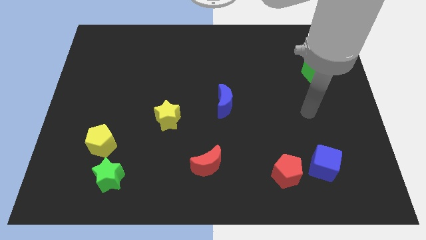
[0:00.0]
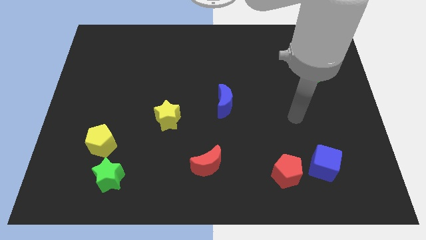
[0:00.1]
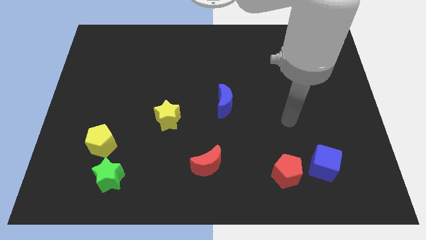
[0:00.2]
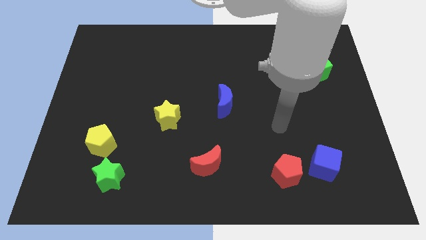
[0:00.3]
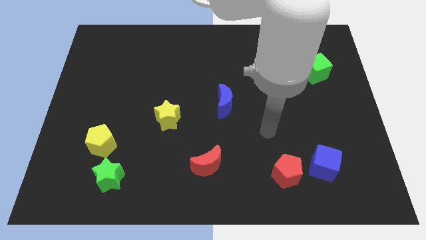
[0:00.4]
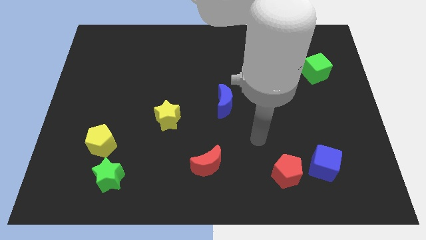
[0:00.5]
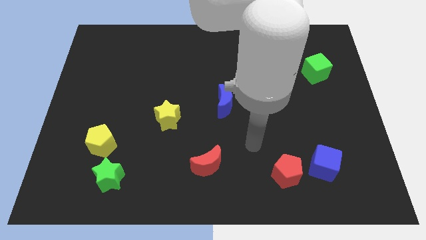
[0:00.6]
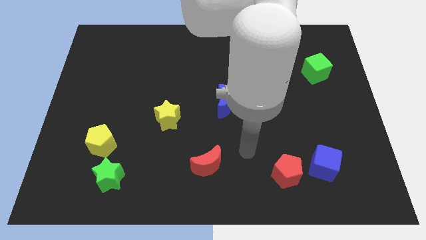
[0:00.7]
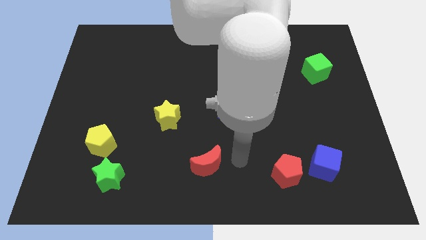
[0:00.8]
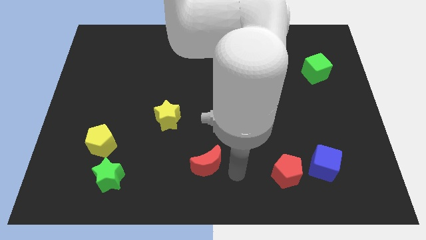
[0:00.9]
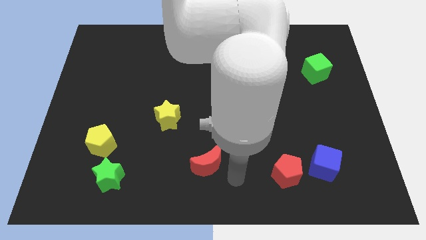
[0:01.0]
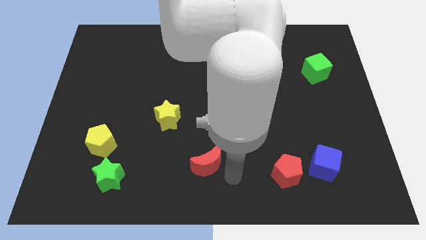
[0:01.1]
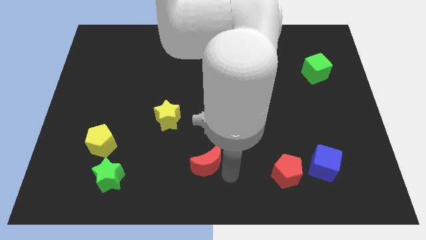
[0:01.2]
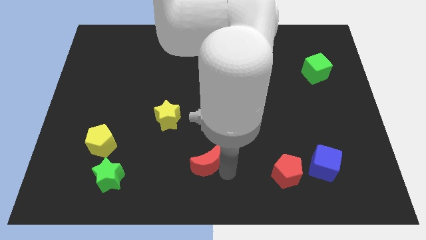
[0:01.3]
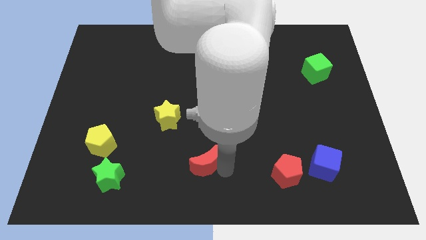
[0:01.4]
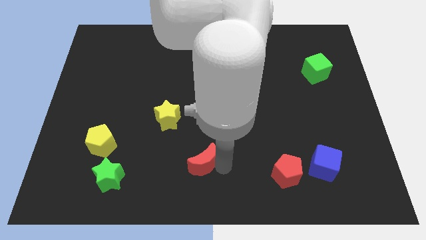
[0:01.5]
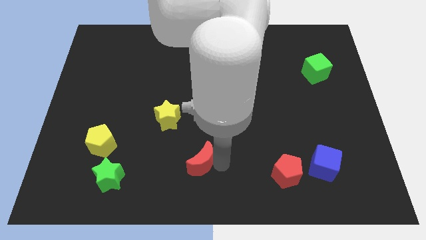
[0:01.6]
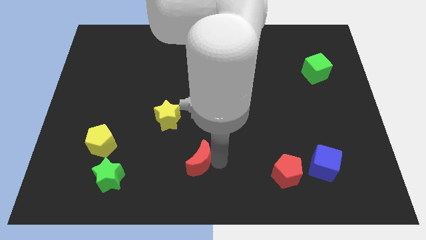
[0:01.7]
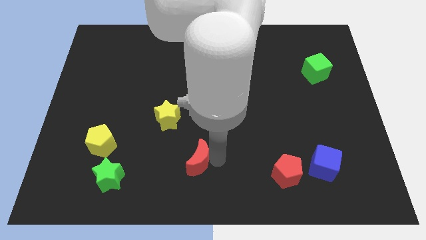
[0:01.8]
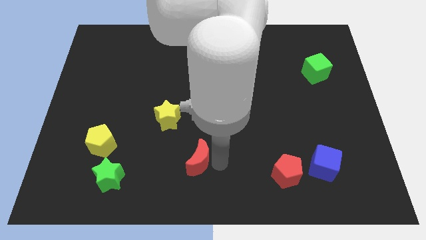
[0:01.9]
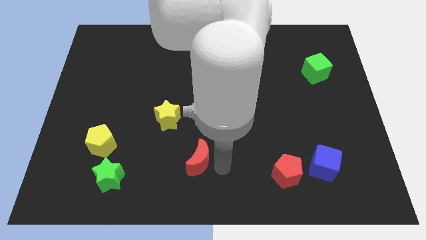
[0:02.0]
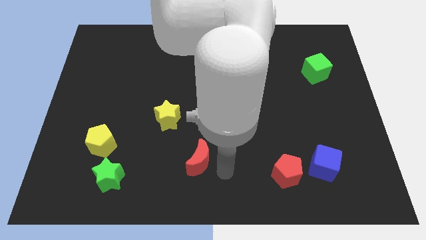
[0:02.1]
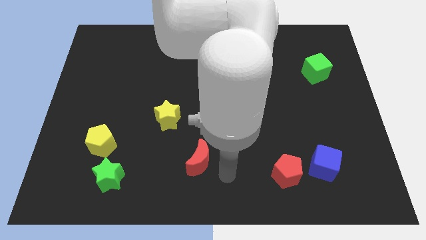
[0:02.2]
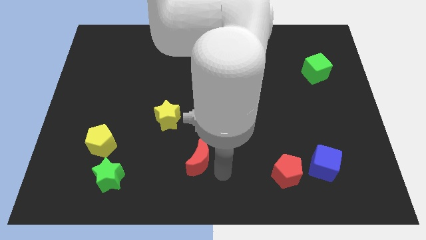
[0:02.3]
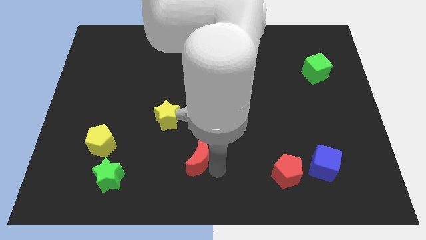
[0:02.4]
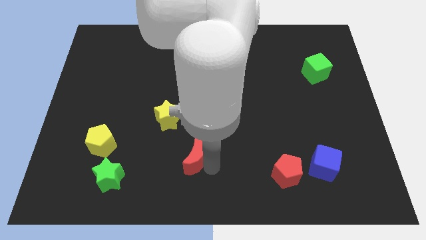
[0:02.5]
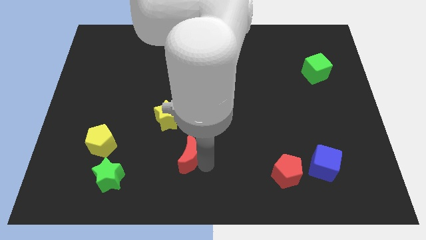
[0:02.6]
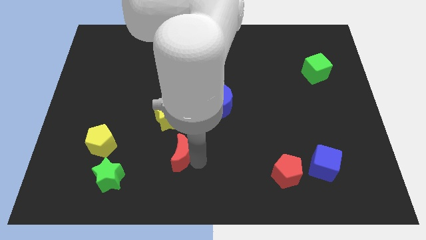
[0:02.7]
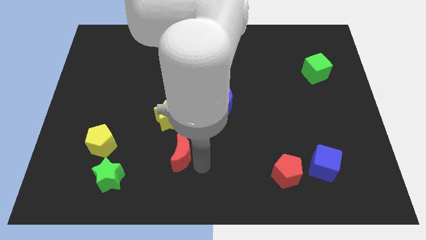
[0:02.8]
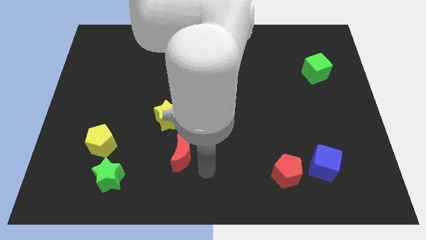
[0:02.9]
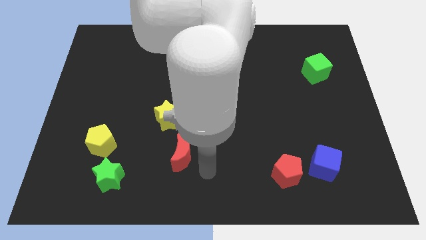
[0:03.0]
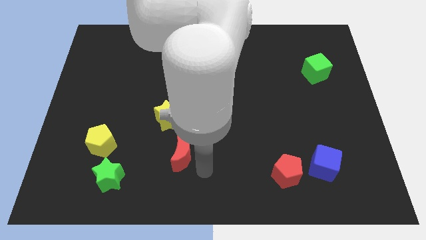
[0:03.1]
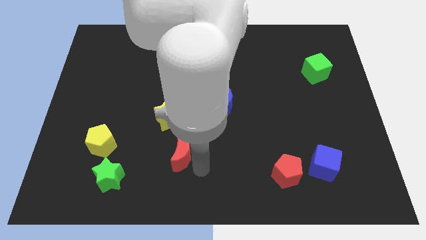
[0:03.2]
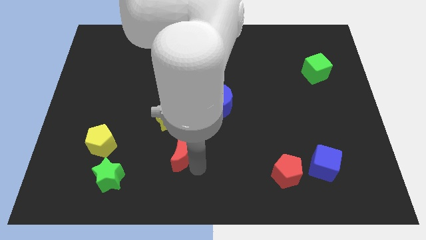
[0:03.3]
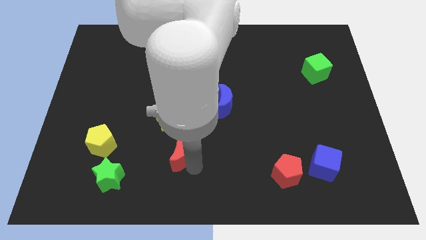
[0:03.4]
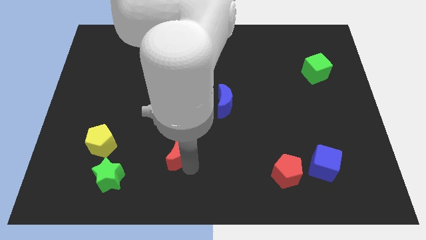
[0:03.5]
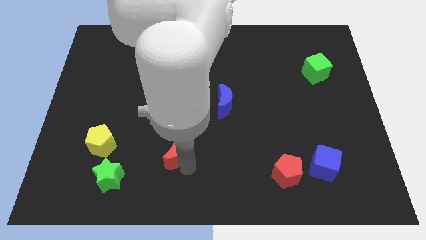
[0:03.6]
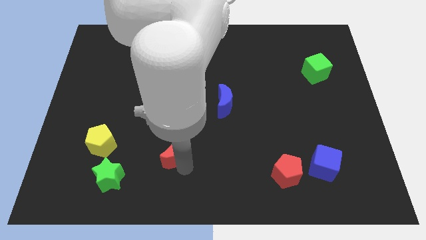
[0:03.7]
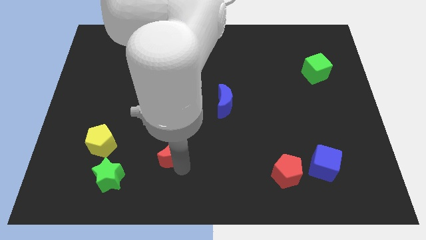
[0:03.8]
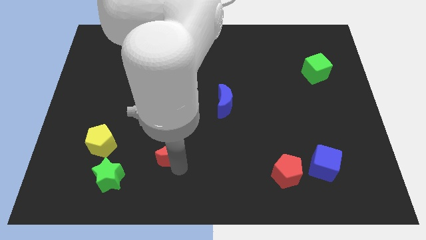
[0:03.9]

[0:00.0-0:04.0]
move the red moon up and then to the left a little

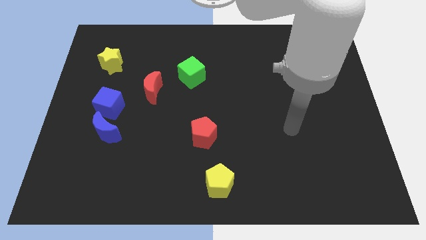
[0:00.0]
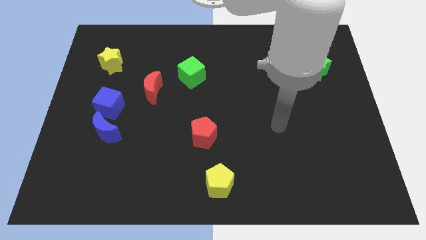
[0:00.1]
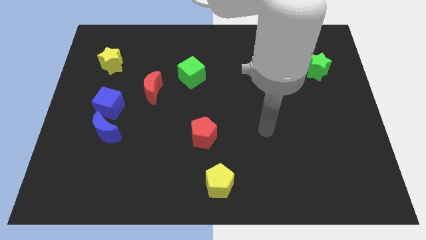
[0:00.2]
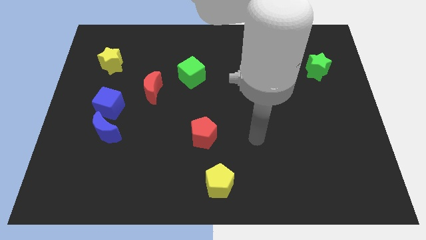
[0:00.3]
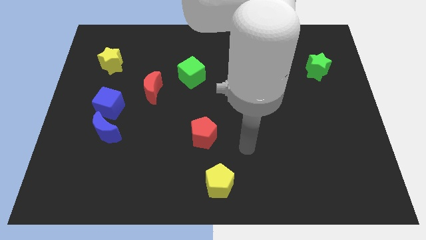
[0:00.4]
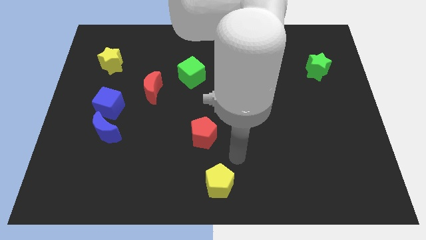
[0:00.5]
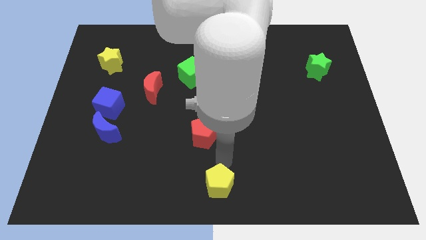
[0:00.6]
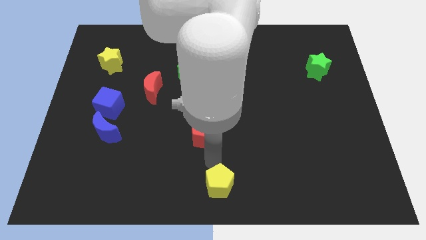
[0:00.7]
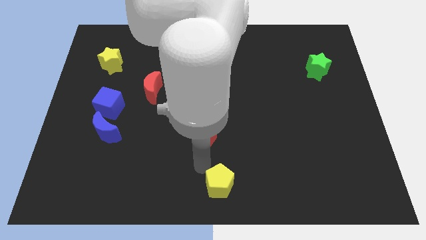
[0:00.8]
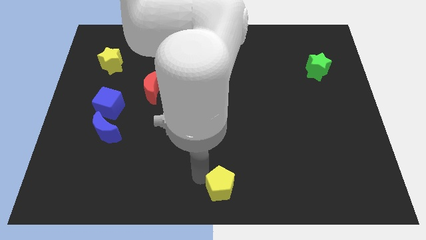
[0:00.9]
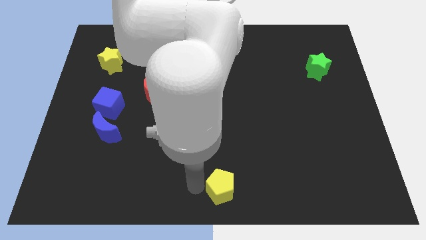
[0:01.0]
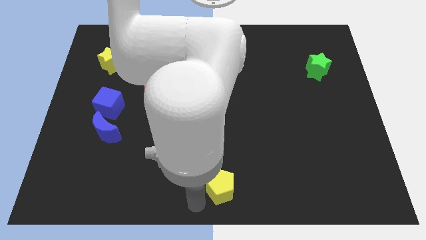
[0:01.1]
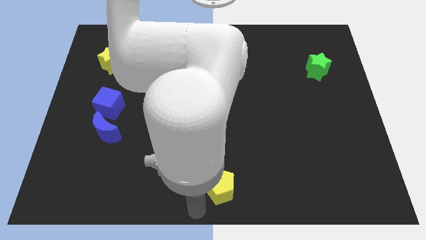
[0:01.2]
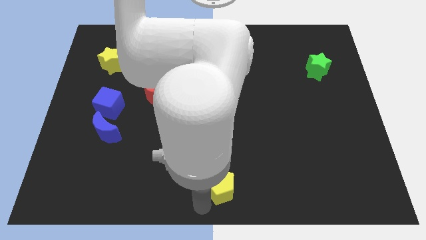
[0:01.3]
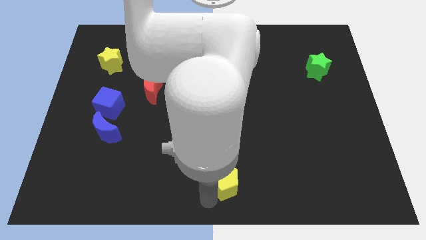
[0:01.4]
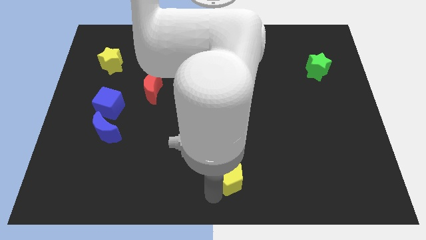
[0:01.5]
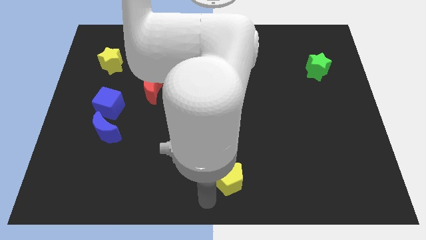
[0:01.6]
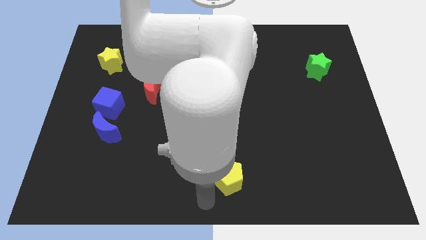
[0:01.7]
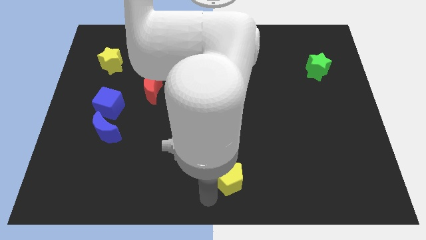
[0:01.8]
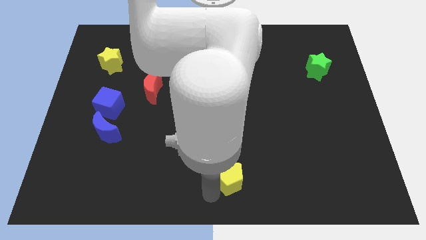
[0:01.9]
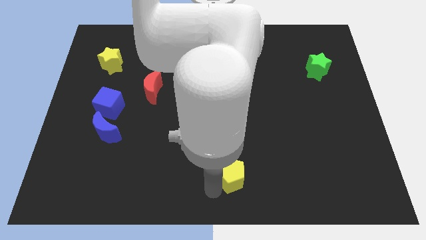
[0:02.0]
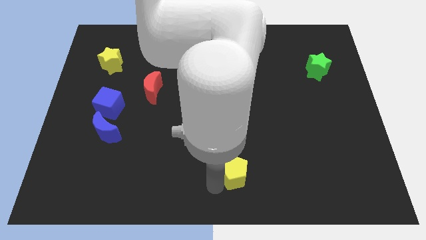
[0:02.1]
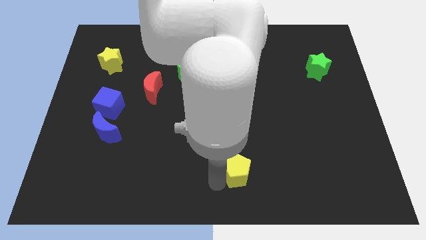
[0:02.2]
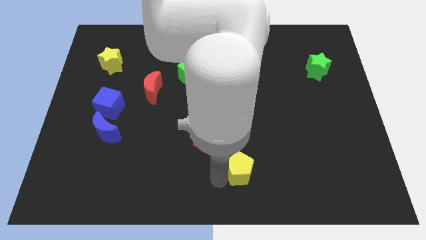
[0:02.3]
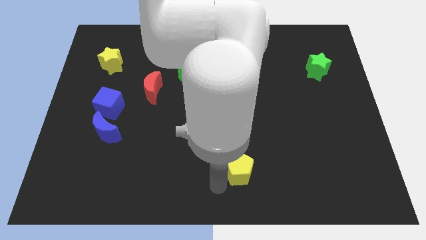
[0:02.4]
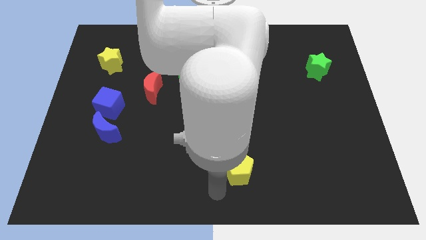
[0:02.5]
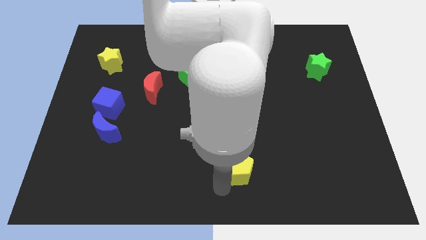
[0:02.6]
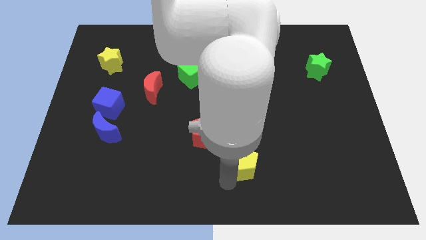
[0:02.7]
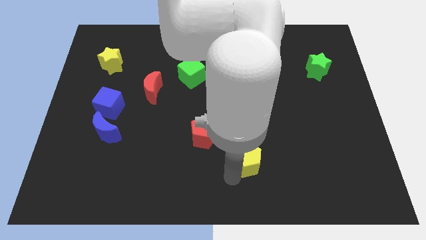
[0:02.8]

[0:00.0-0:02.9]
push the yellow pentagon slightly diagonally upwards and right

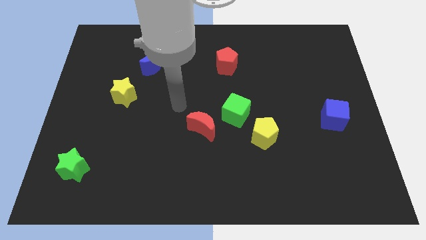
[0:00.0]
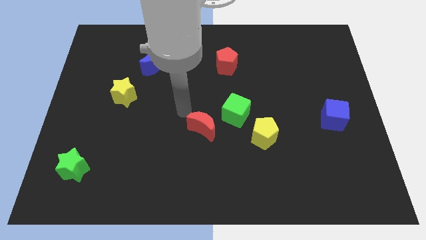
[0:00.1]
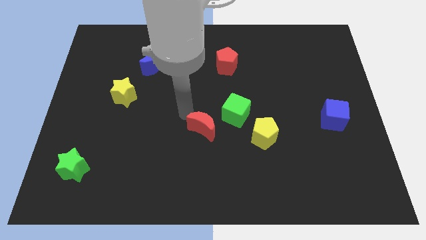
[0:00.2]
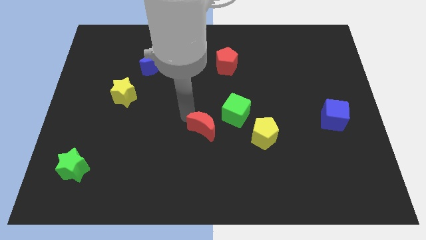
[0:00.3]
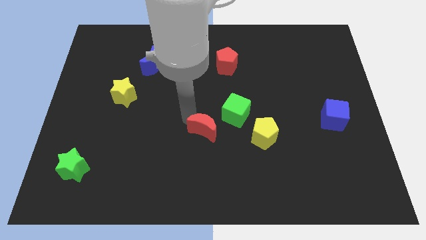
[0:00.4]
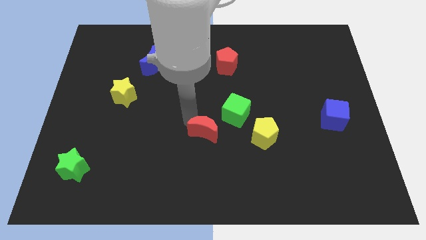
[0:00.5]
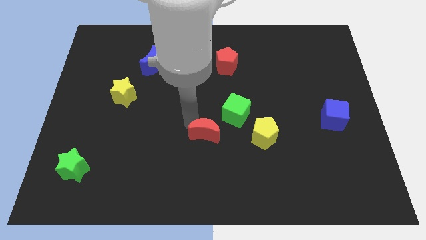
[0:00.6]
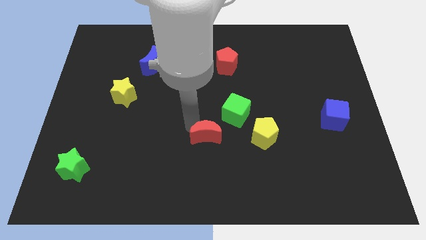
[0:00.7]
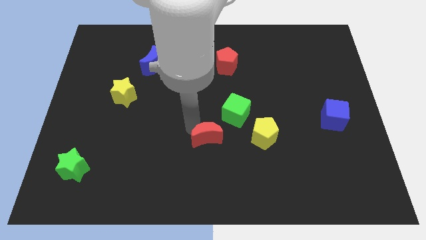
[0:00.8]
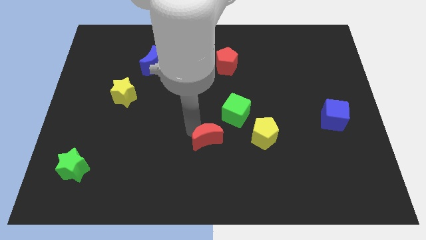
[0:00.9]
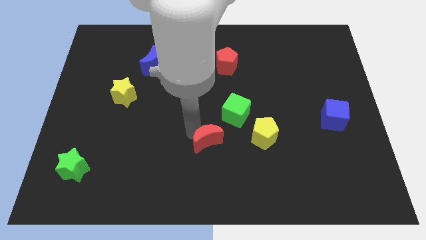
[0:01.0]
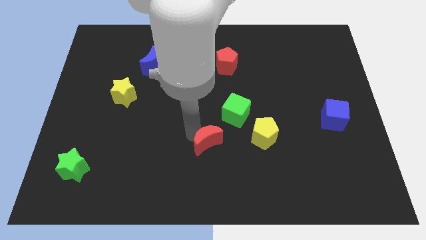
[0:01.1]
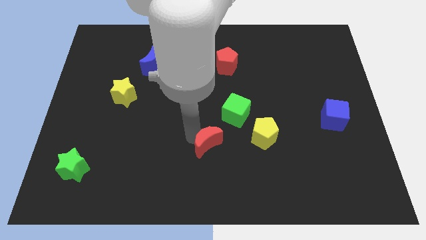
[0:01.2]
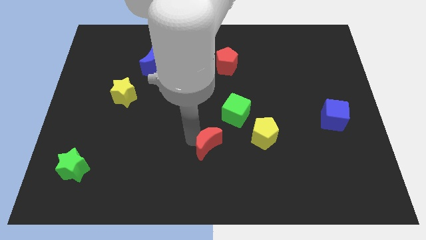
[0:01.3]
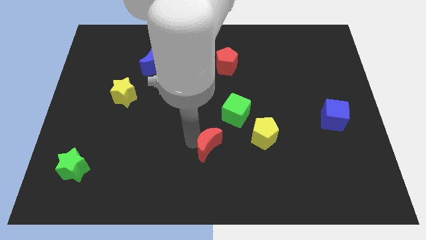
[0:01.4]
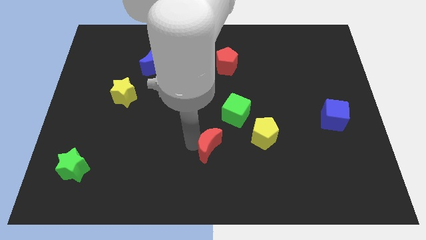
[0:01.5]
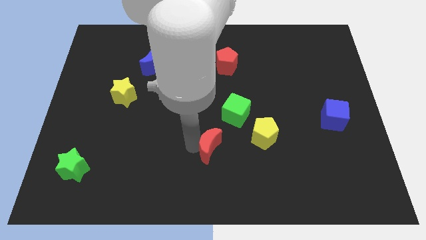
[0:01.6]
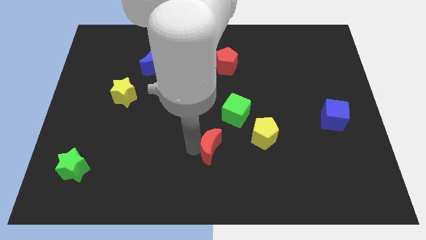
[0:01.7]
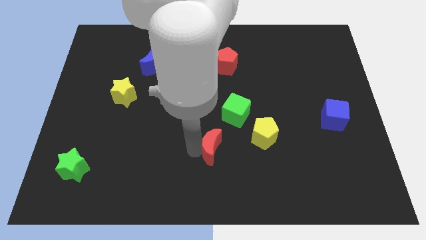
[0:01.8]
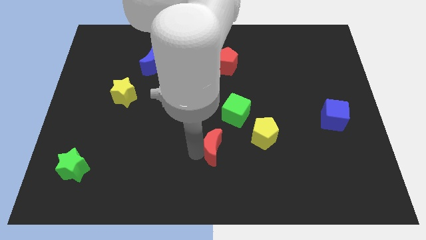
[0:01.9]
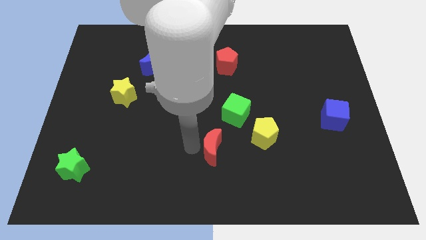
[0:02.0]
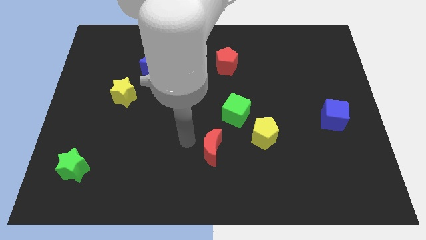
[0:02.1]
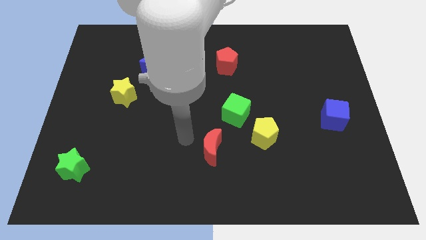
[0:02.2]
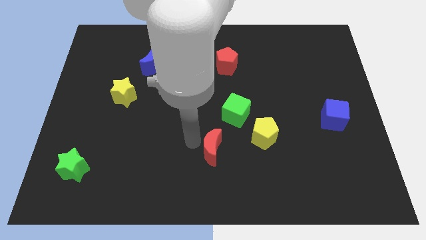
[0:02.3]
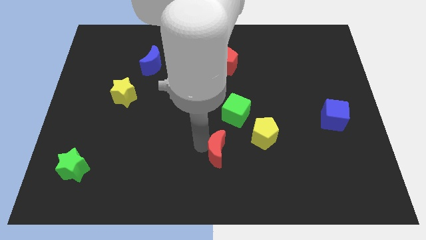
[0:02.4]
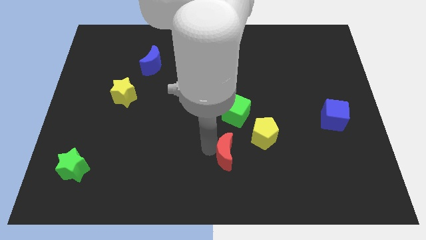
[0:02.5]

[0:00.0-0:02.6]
push the red moon down and right diagonally somewhat
